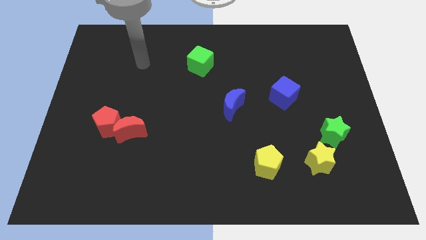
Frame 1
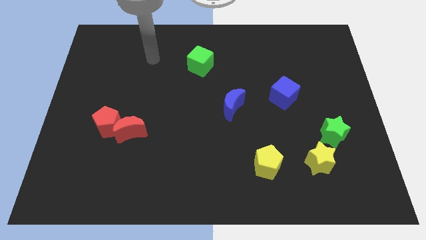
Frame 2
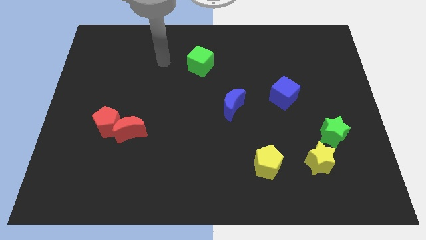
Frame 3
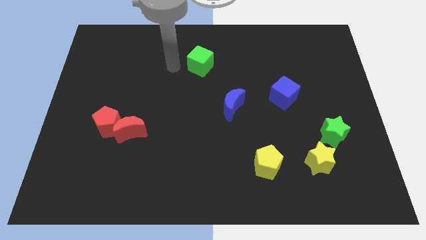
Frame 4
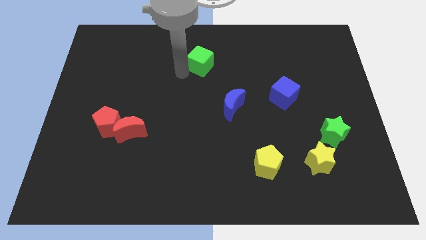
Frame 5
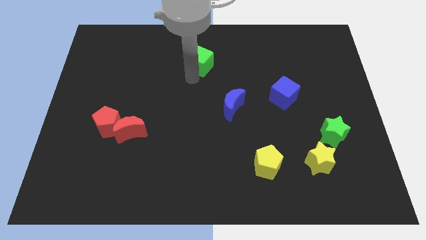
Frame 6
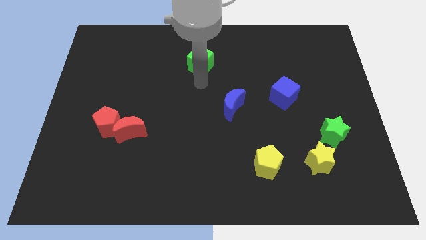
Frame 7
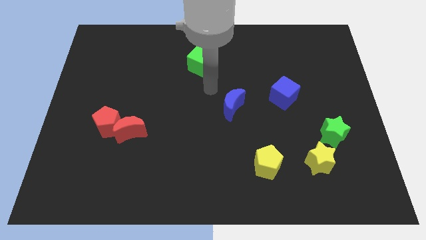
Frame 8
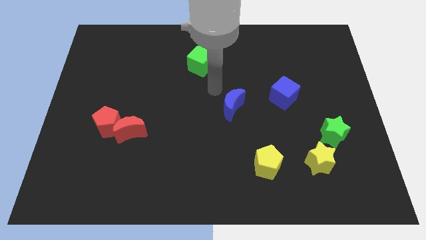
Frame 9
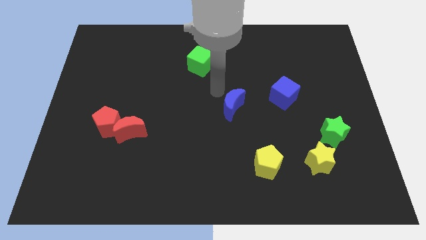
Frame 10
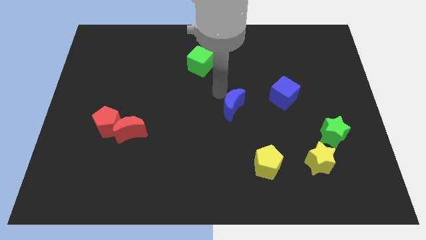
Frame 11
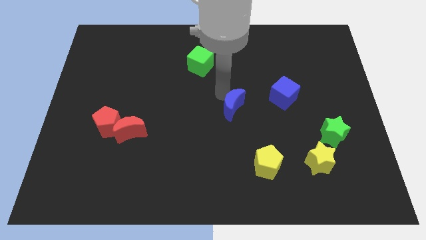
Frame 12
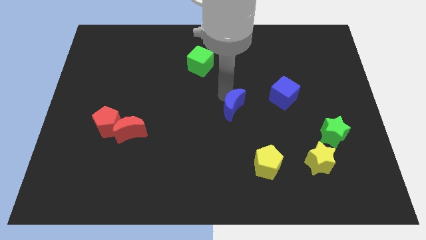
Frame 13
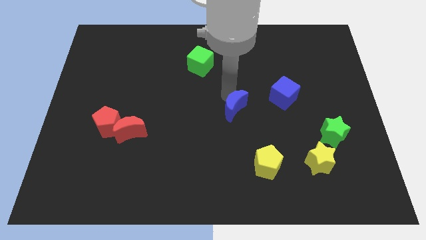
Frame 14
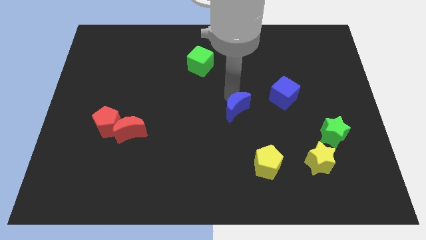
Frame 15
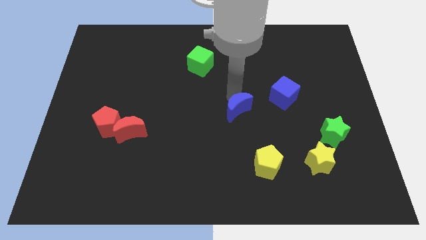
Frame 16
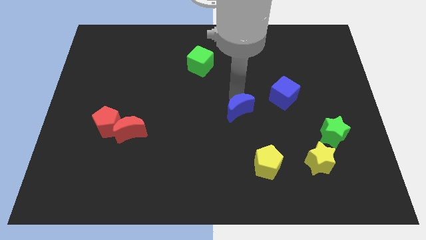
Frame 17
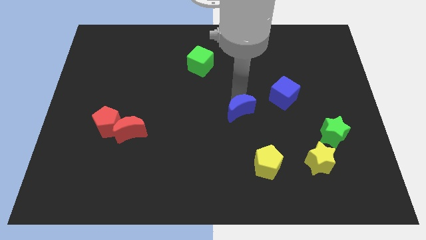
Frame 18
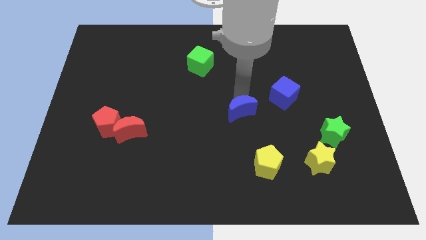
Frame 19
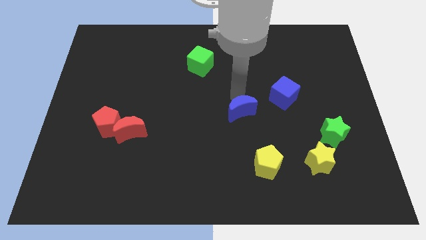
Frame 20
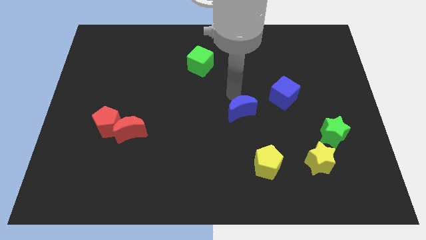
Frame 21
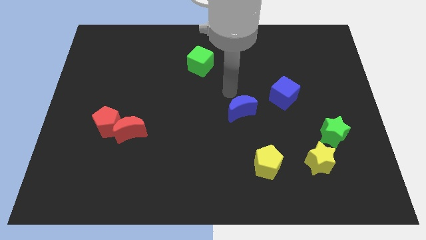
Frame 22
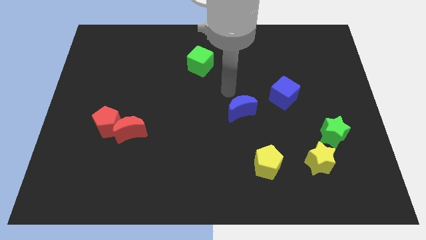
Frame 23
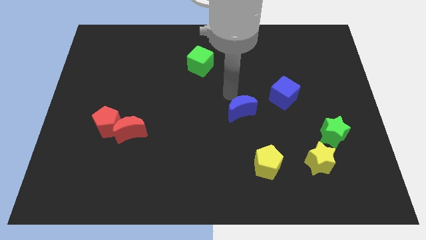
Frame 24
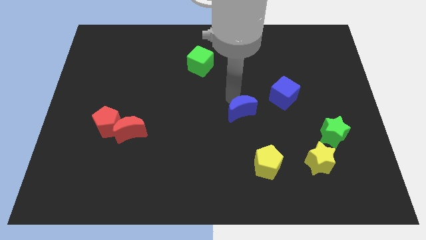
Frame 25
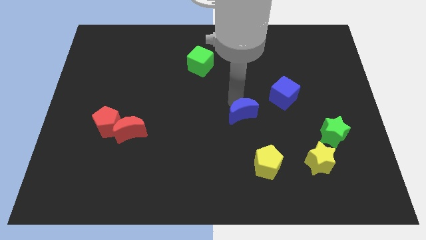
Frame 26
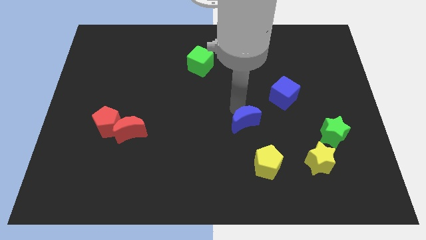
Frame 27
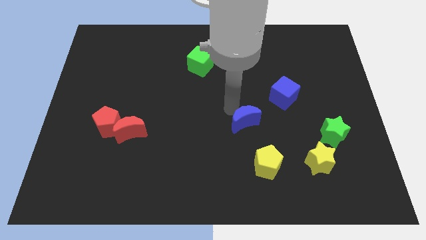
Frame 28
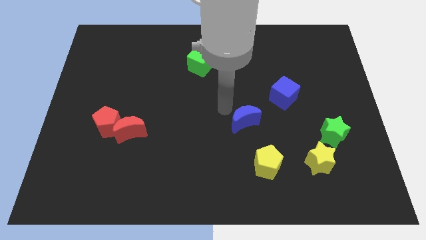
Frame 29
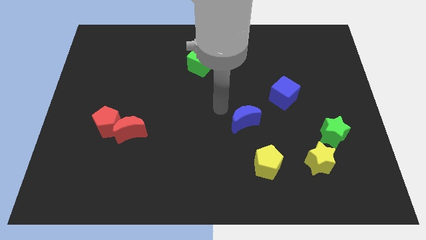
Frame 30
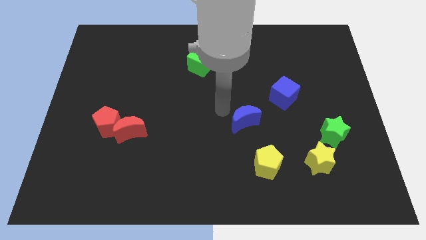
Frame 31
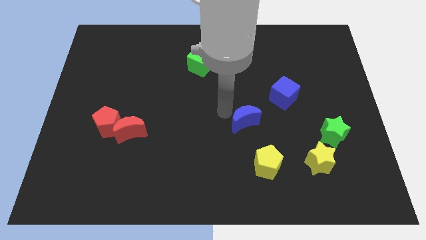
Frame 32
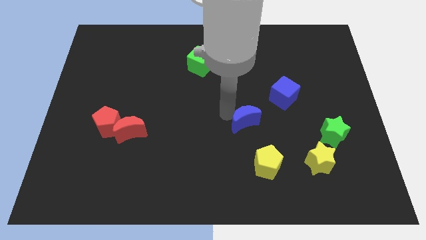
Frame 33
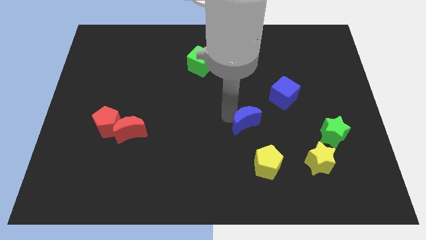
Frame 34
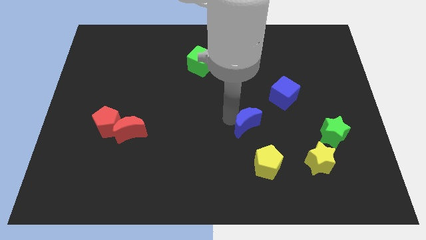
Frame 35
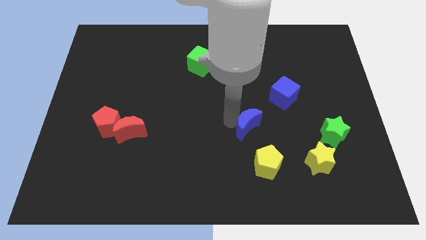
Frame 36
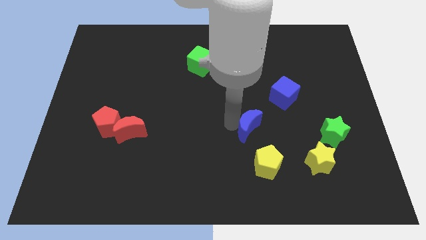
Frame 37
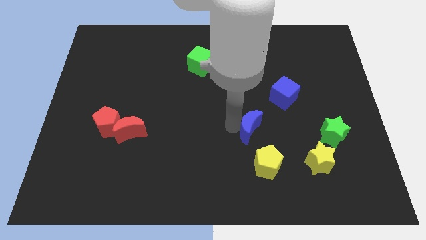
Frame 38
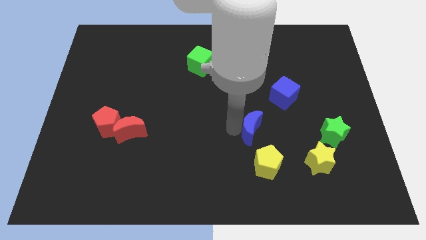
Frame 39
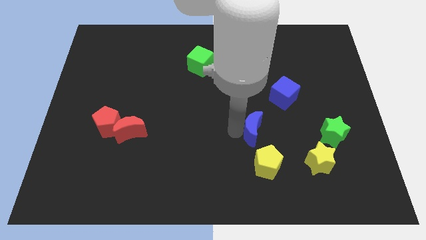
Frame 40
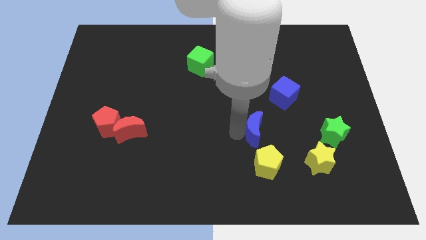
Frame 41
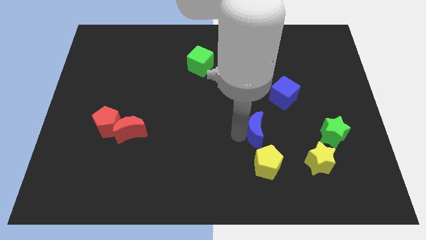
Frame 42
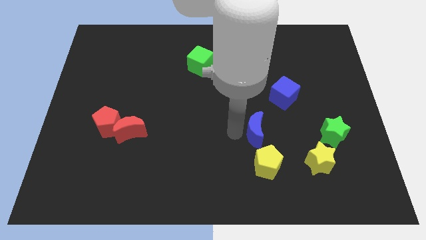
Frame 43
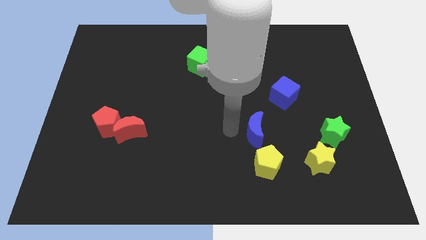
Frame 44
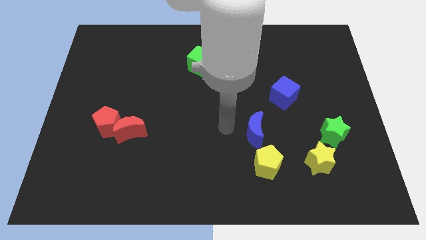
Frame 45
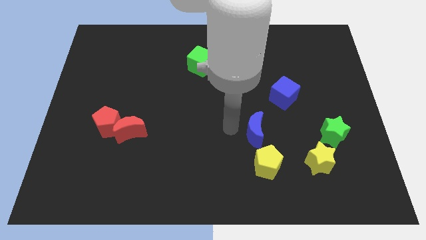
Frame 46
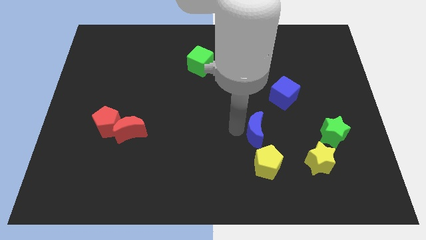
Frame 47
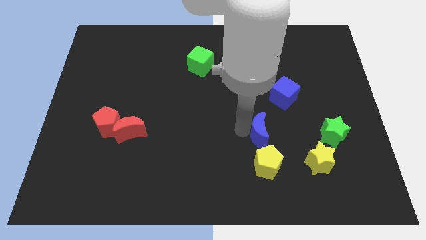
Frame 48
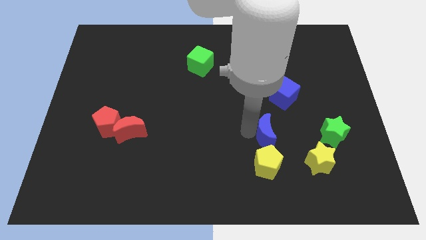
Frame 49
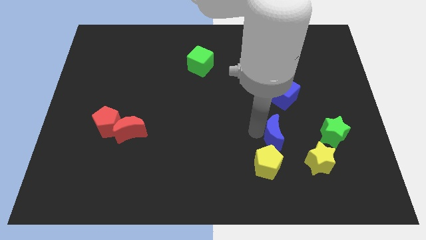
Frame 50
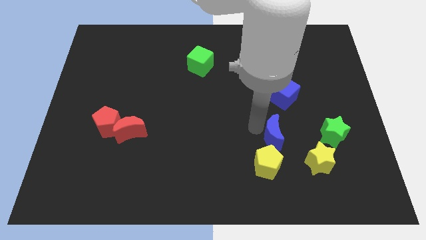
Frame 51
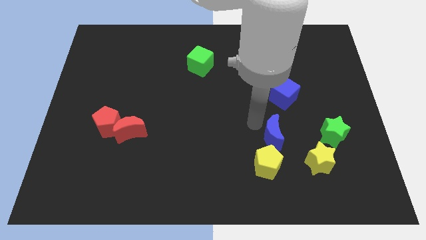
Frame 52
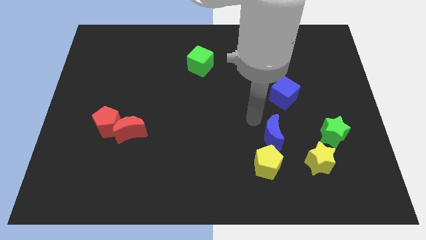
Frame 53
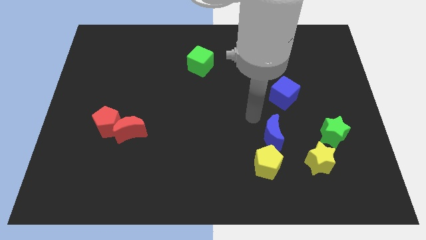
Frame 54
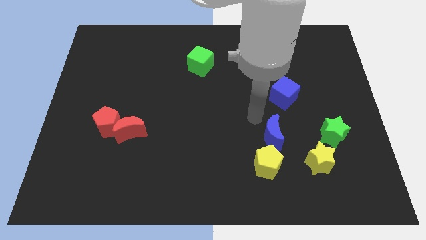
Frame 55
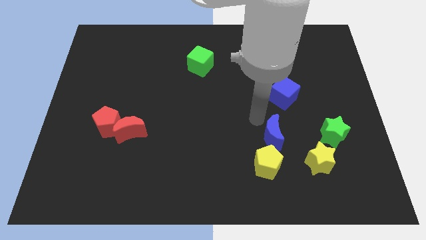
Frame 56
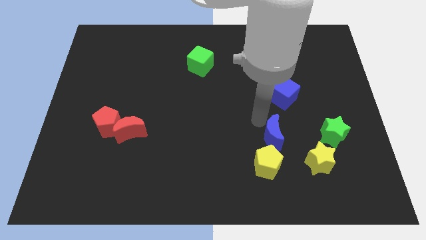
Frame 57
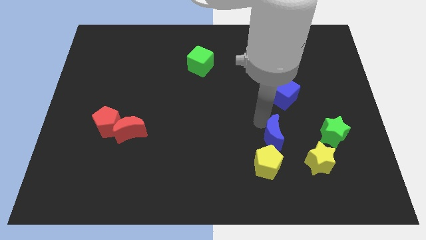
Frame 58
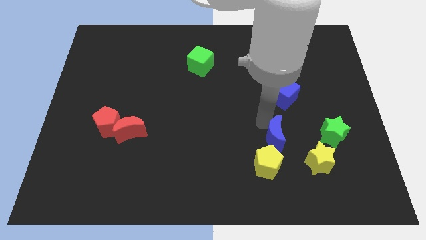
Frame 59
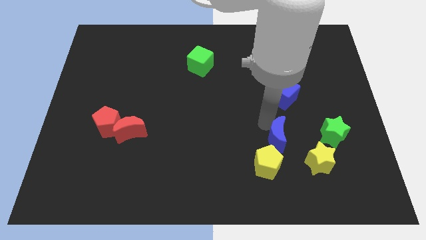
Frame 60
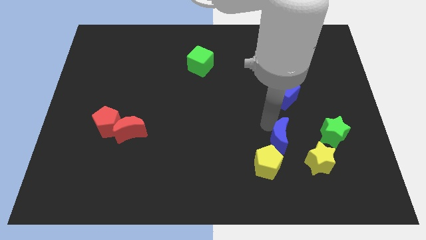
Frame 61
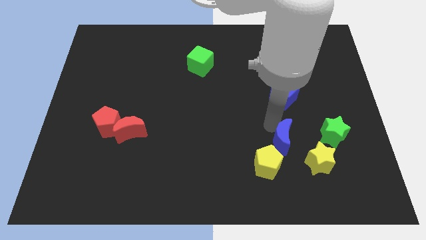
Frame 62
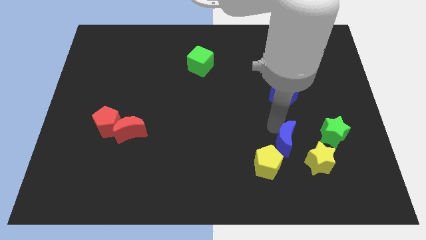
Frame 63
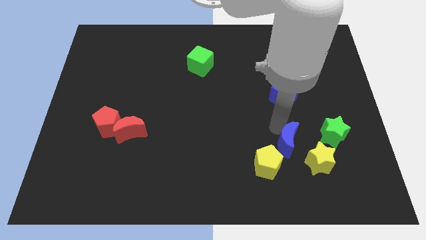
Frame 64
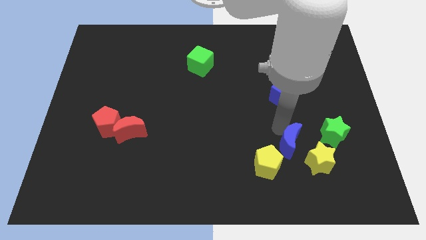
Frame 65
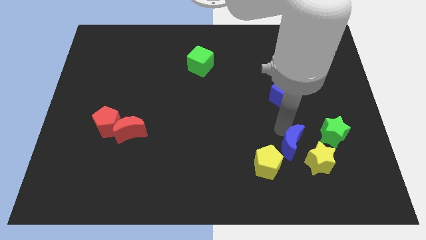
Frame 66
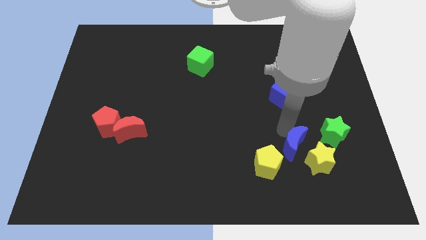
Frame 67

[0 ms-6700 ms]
put the blue moon to the yellow star

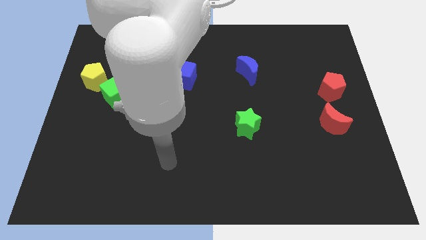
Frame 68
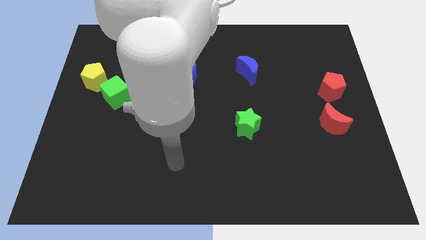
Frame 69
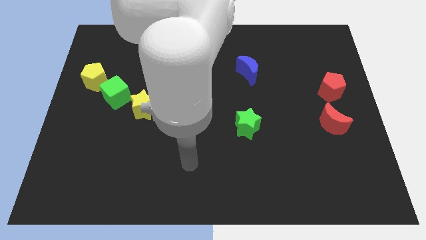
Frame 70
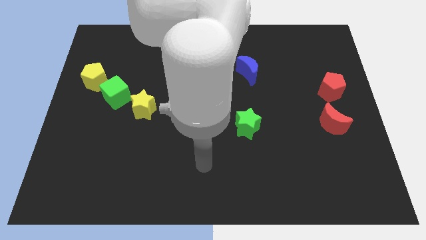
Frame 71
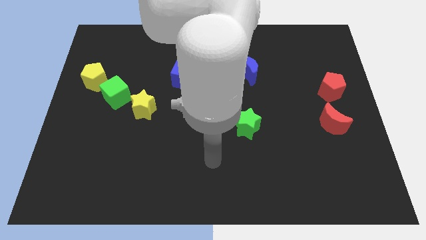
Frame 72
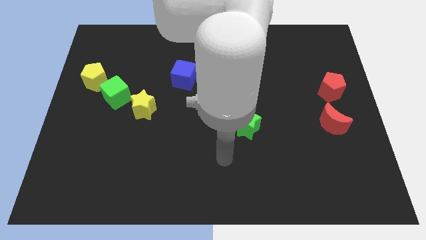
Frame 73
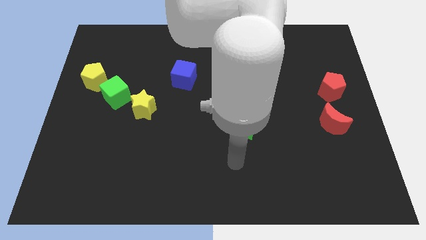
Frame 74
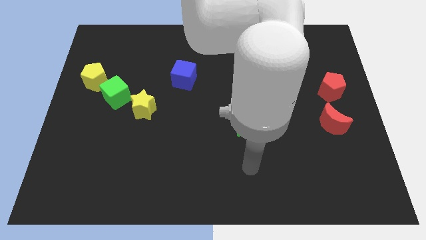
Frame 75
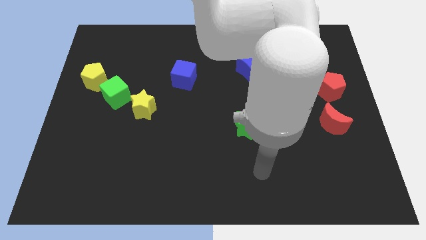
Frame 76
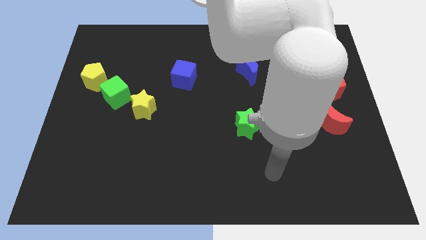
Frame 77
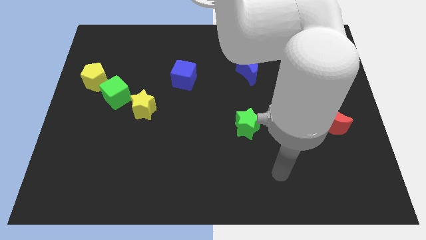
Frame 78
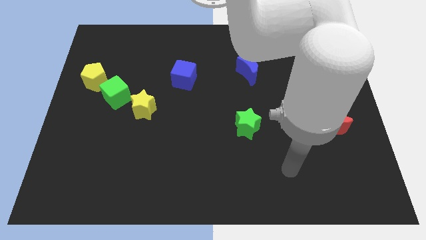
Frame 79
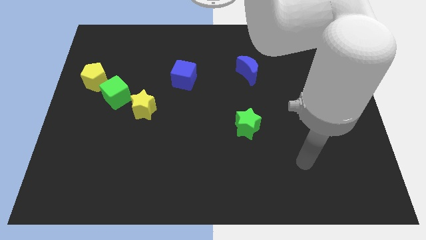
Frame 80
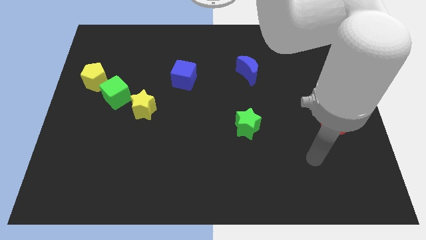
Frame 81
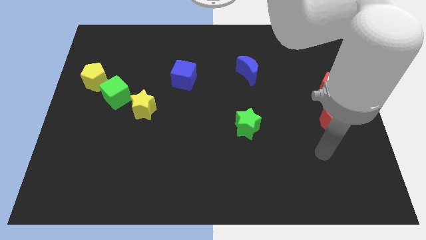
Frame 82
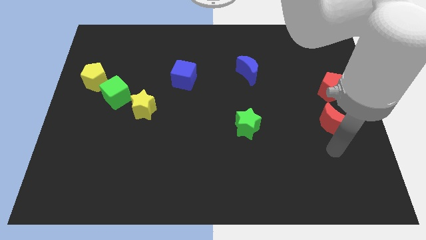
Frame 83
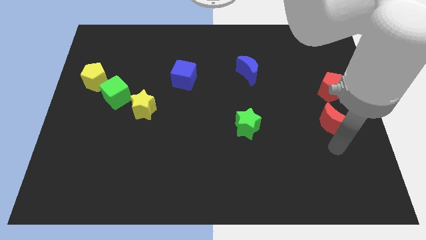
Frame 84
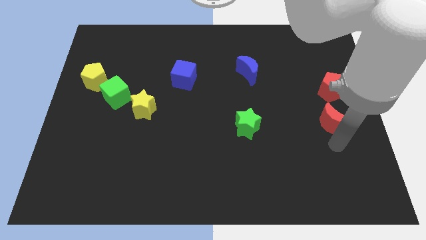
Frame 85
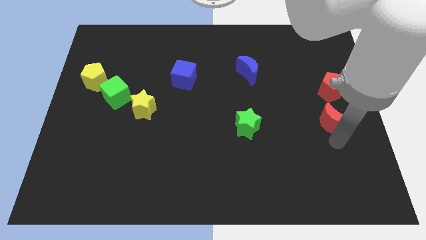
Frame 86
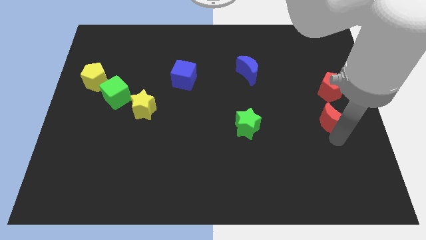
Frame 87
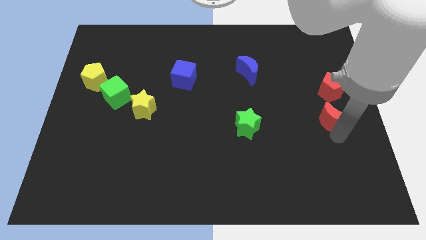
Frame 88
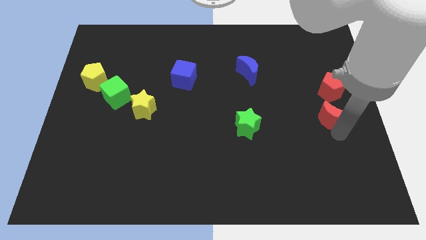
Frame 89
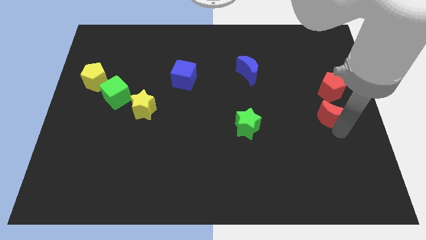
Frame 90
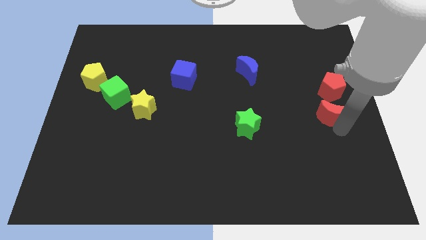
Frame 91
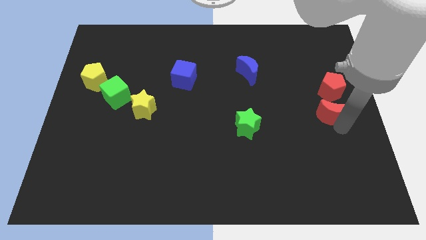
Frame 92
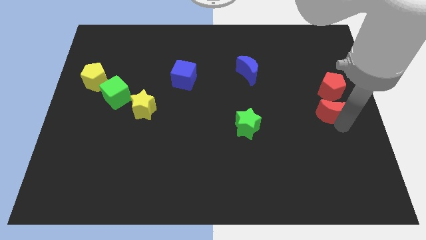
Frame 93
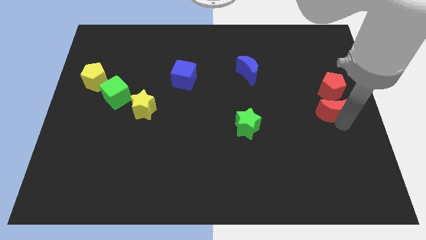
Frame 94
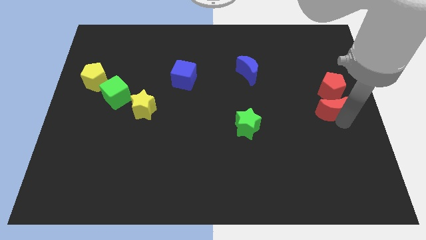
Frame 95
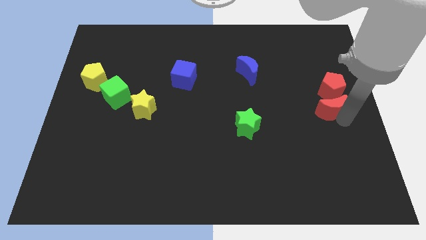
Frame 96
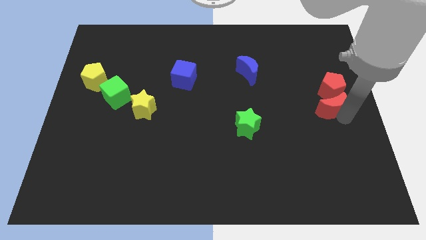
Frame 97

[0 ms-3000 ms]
move the red moon towards the red pentagon
